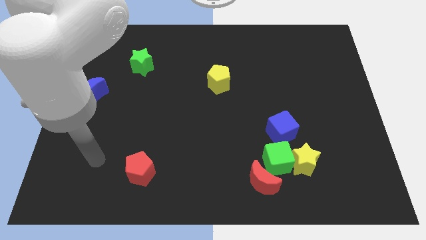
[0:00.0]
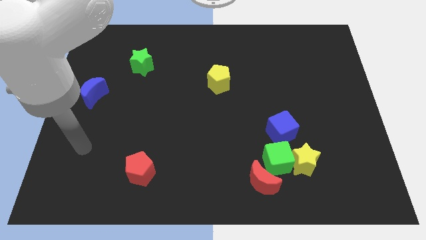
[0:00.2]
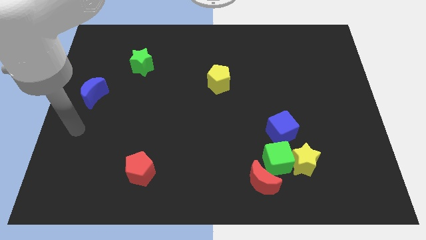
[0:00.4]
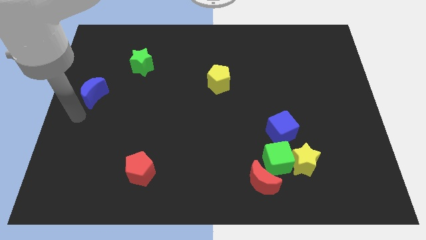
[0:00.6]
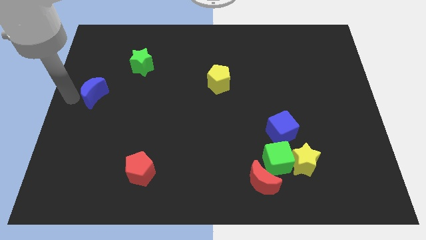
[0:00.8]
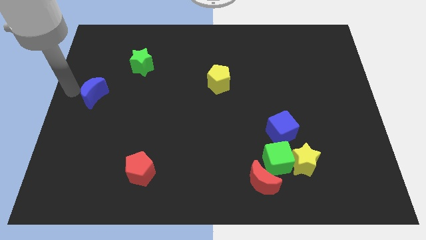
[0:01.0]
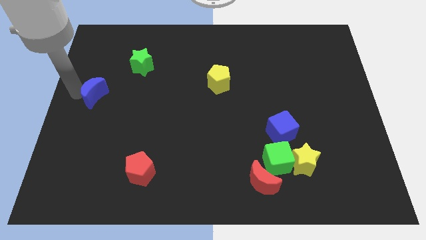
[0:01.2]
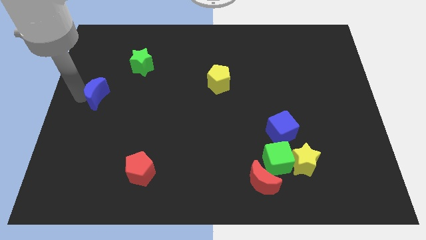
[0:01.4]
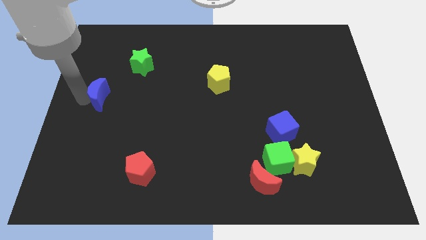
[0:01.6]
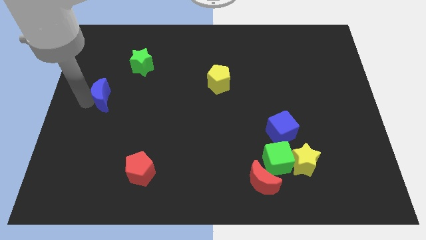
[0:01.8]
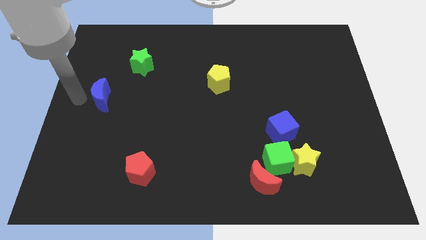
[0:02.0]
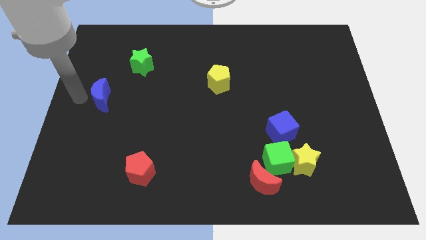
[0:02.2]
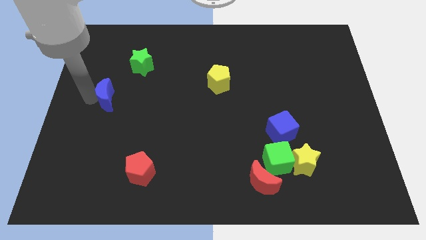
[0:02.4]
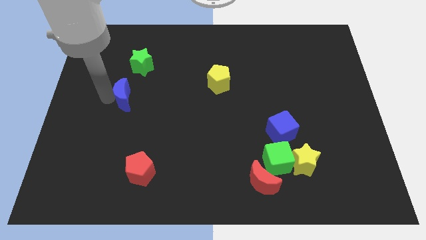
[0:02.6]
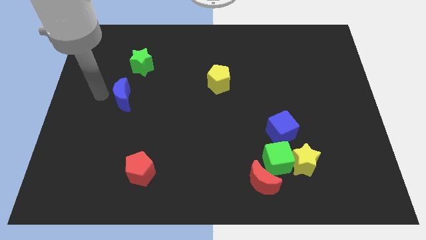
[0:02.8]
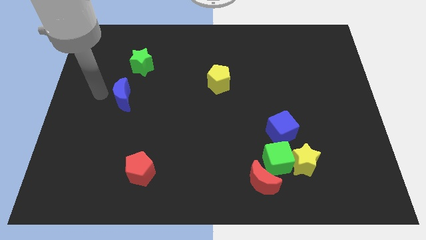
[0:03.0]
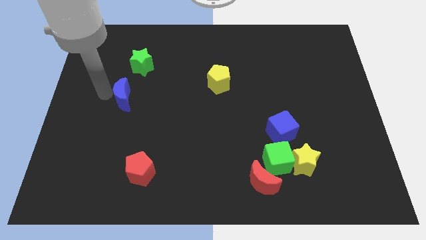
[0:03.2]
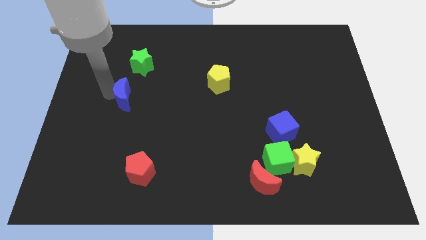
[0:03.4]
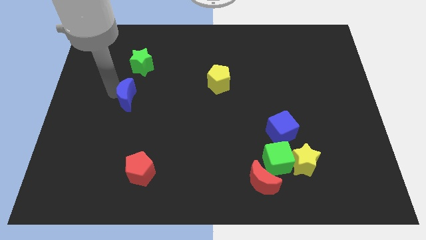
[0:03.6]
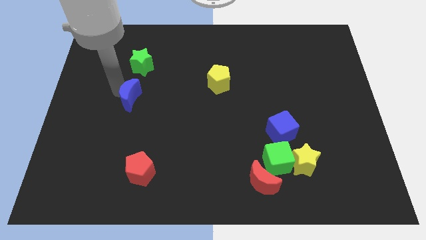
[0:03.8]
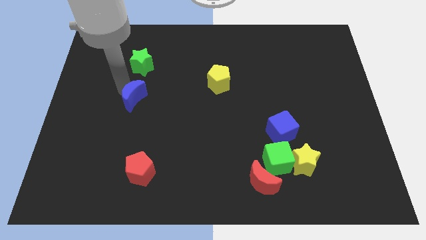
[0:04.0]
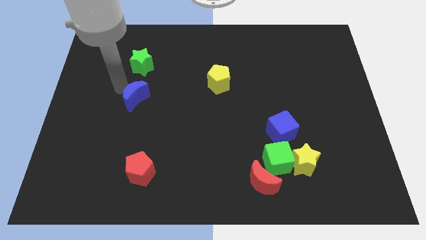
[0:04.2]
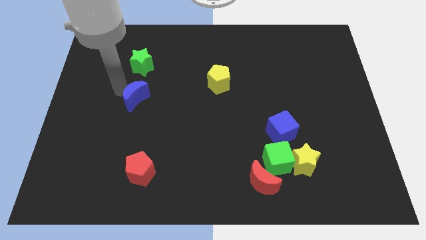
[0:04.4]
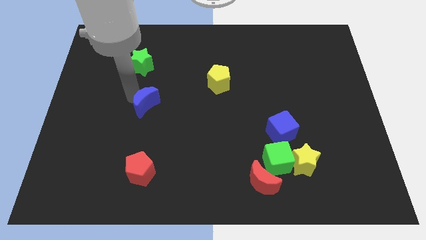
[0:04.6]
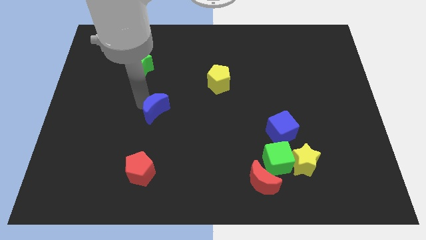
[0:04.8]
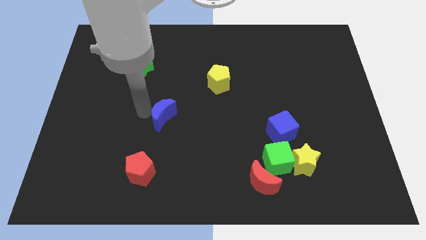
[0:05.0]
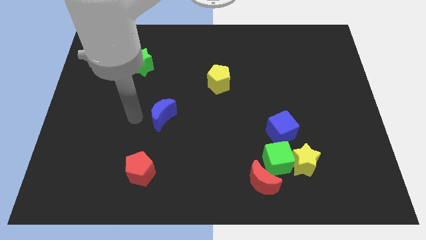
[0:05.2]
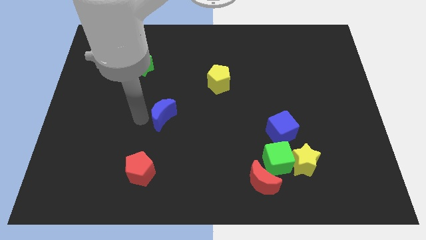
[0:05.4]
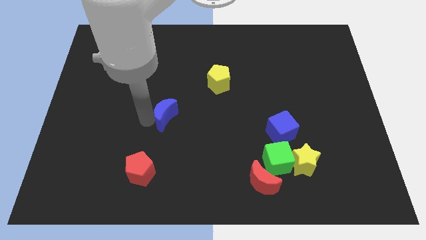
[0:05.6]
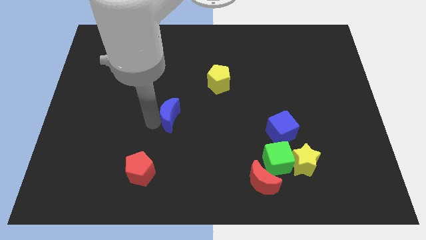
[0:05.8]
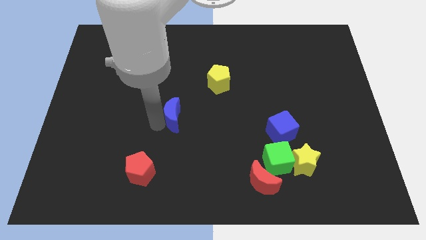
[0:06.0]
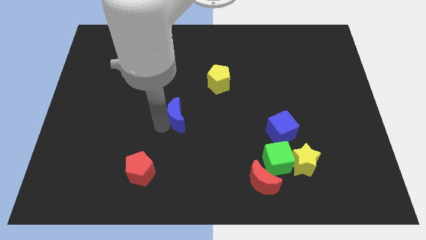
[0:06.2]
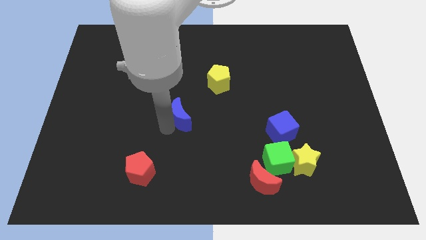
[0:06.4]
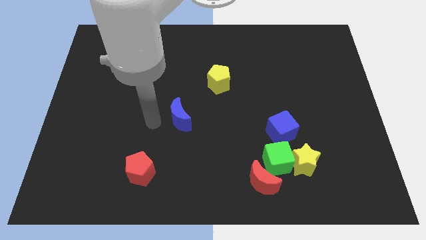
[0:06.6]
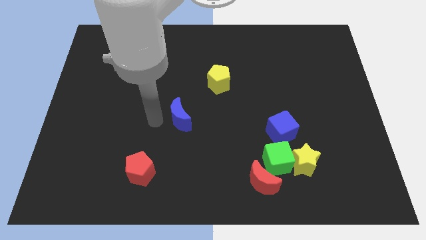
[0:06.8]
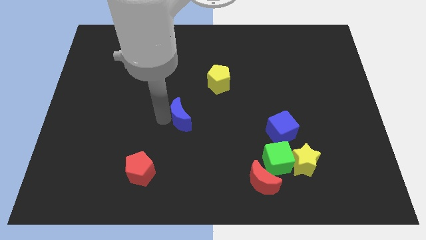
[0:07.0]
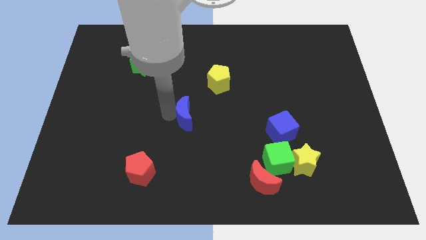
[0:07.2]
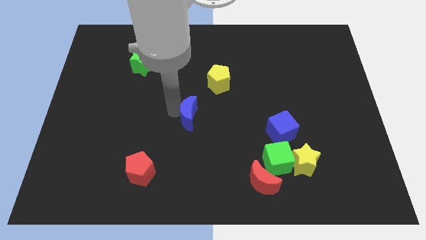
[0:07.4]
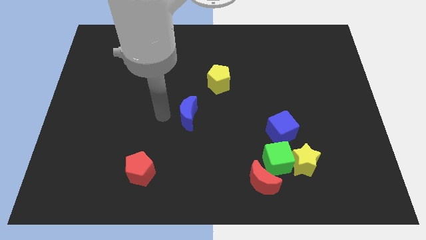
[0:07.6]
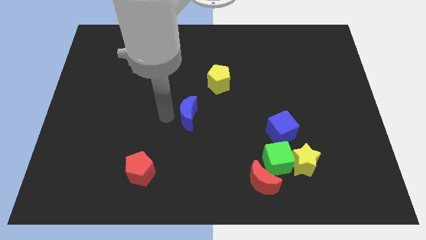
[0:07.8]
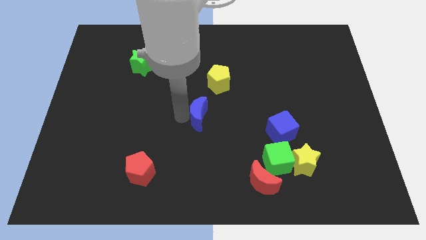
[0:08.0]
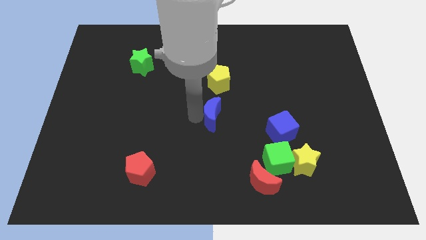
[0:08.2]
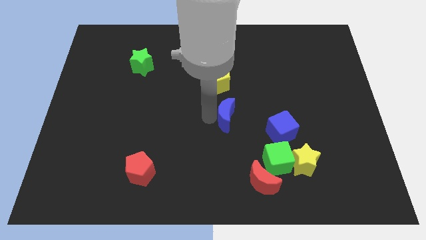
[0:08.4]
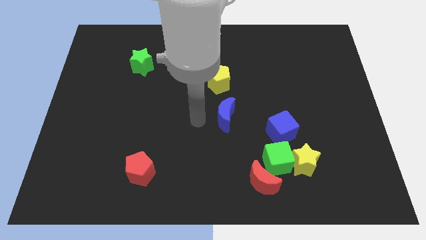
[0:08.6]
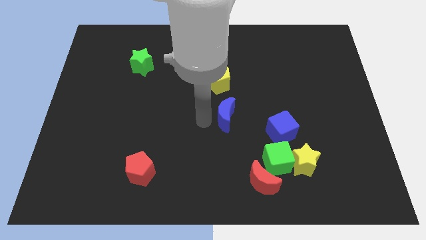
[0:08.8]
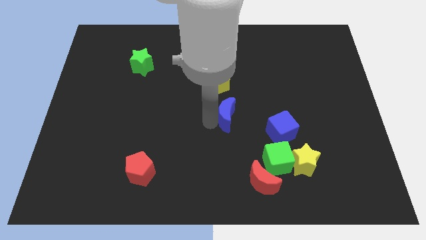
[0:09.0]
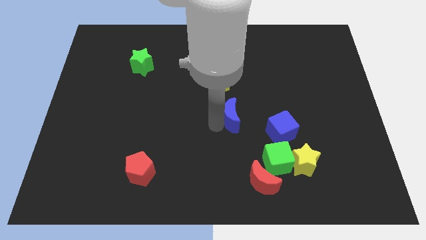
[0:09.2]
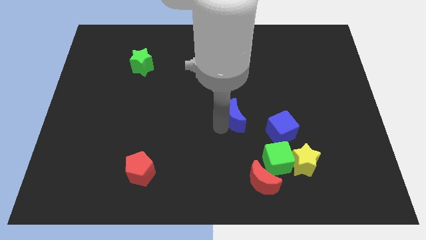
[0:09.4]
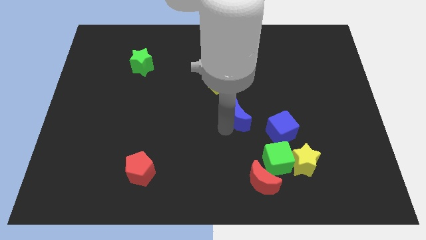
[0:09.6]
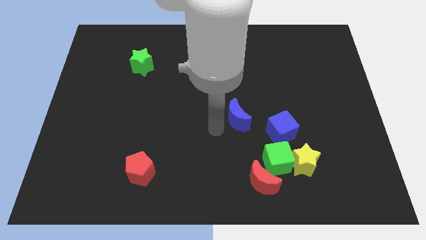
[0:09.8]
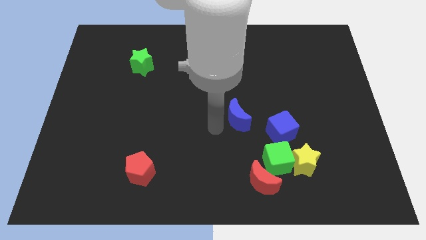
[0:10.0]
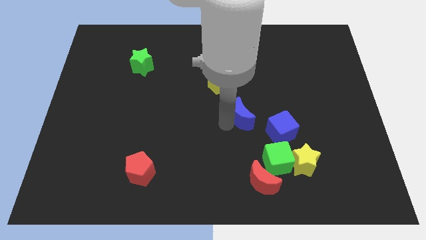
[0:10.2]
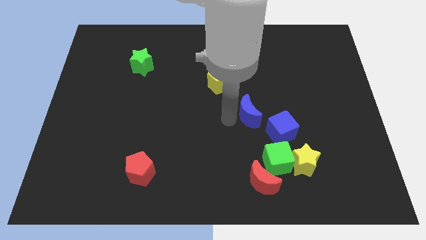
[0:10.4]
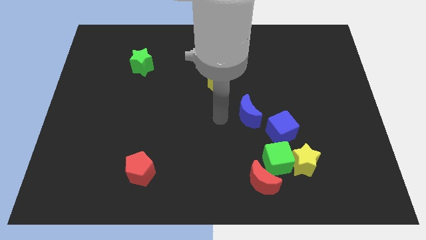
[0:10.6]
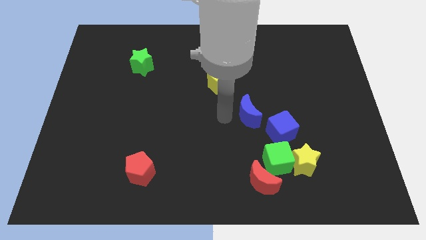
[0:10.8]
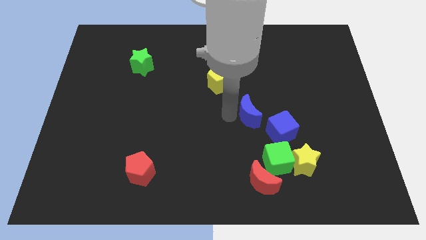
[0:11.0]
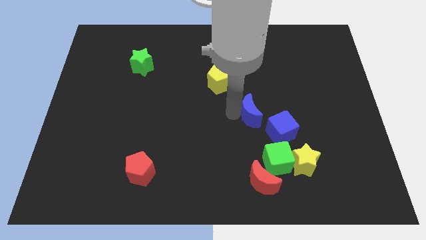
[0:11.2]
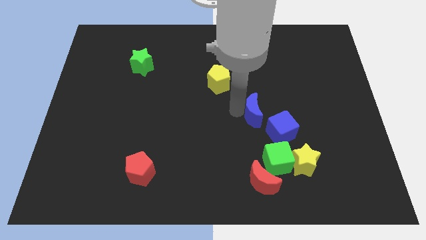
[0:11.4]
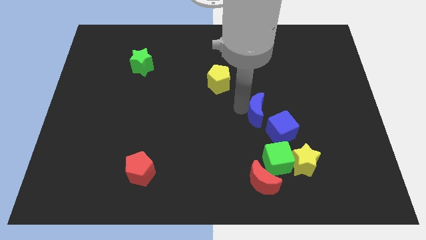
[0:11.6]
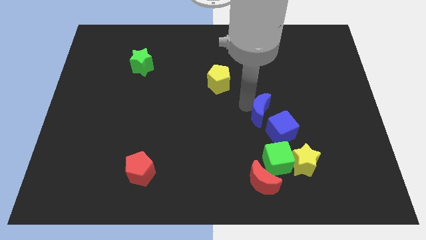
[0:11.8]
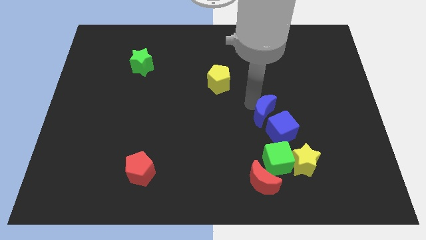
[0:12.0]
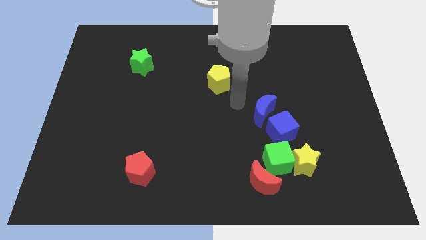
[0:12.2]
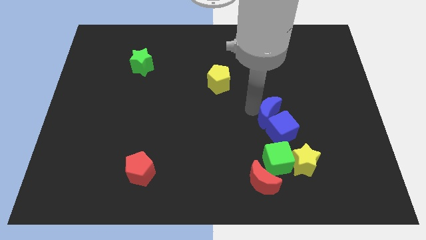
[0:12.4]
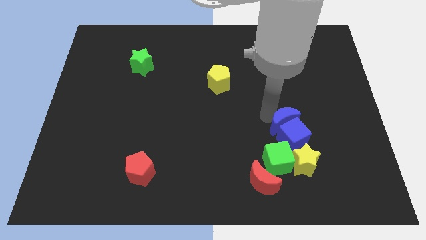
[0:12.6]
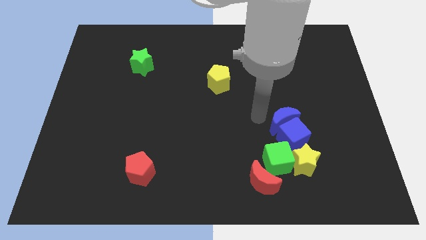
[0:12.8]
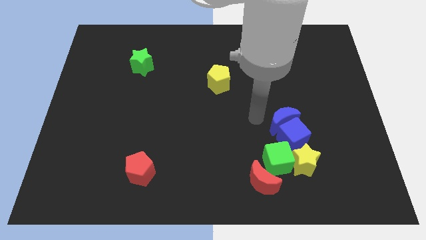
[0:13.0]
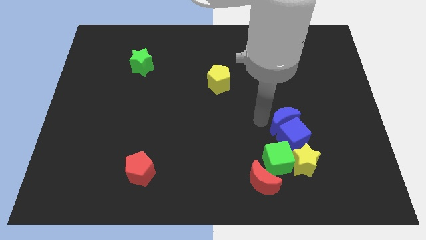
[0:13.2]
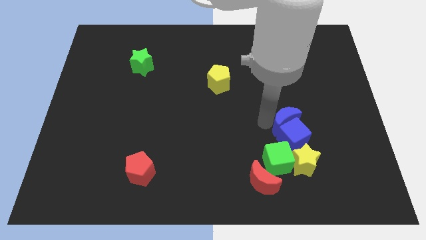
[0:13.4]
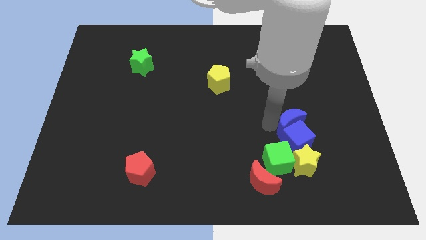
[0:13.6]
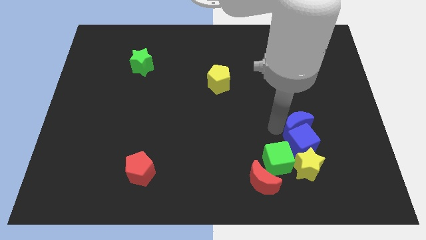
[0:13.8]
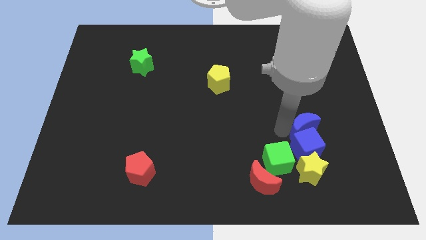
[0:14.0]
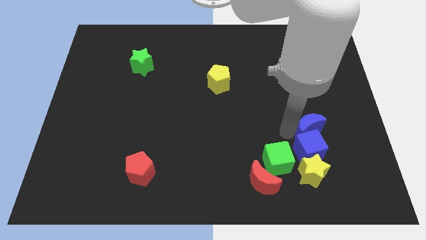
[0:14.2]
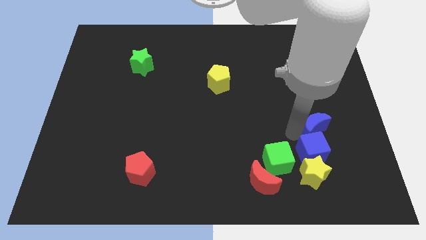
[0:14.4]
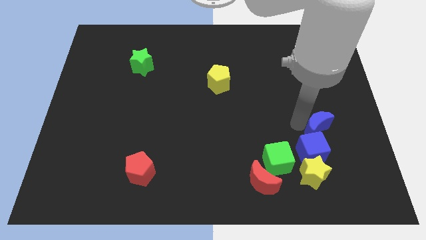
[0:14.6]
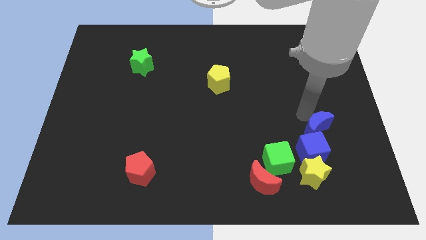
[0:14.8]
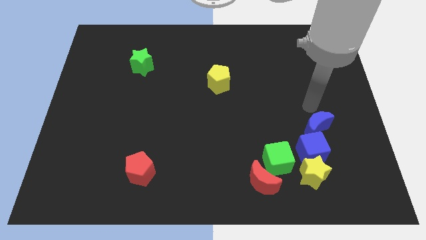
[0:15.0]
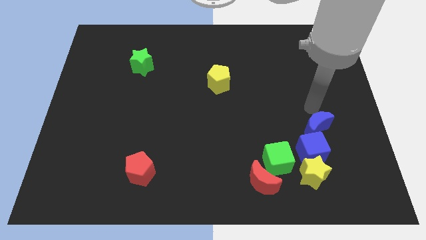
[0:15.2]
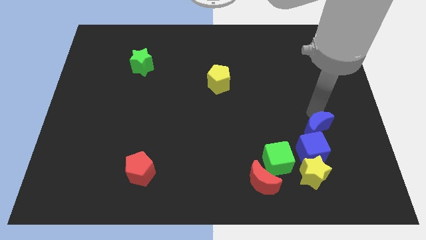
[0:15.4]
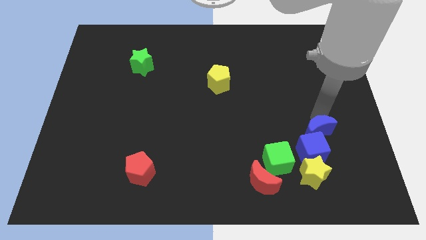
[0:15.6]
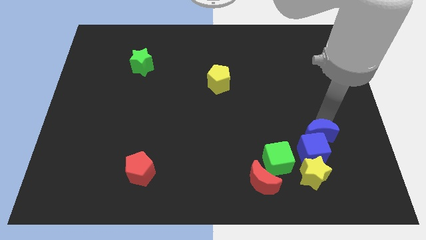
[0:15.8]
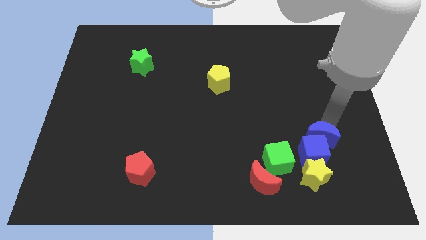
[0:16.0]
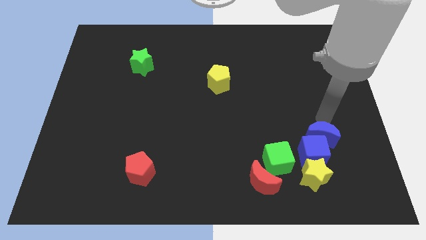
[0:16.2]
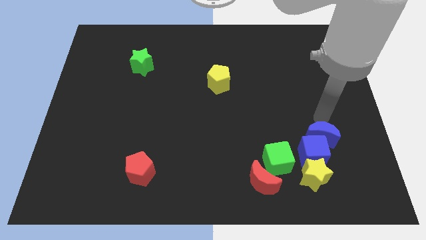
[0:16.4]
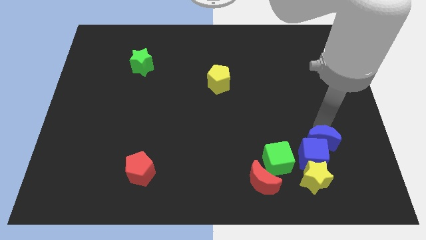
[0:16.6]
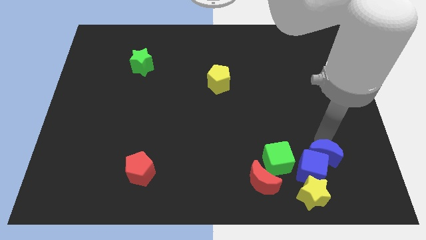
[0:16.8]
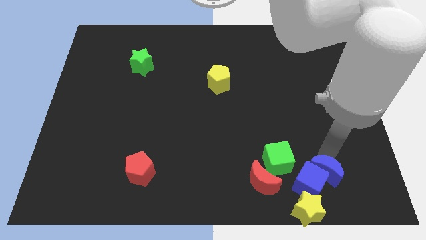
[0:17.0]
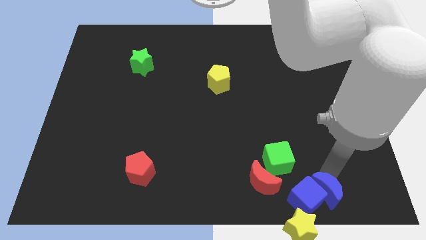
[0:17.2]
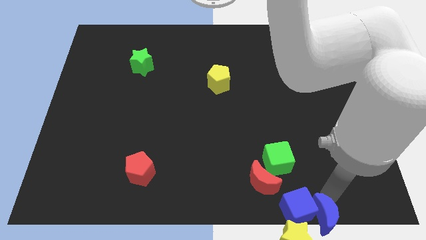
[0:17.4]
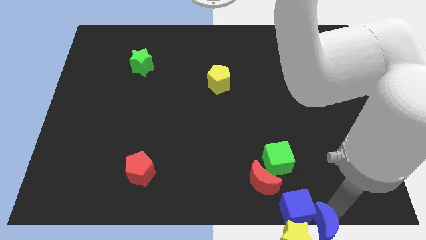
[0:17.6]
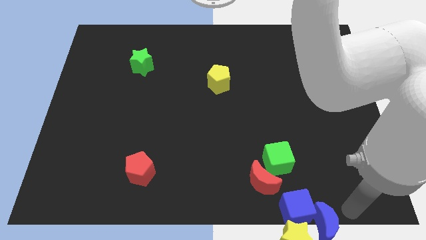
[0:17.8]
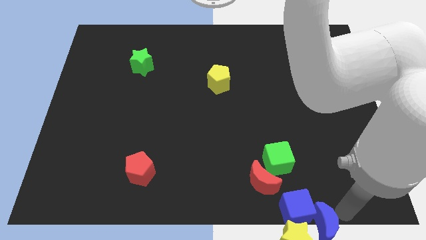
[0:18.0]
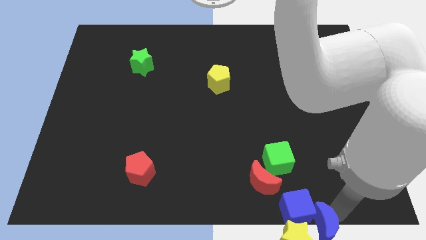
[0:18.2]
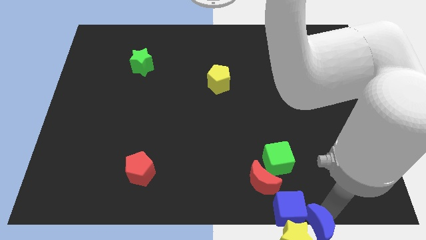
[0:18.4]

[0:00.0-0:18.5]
push the blue moon towards the yellow star
